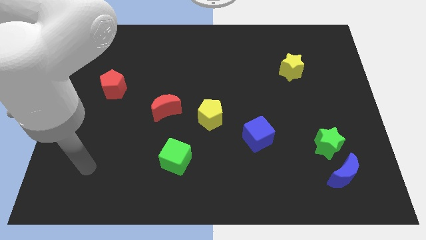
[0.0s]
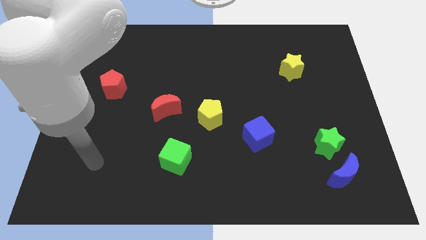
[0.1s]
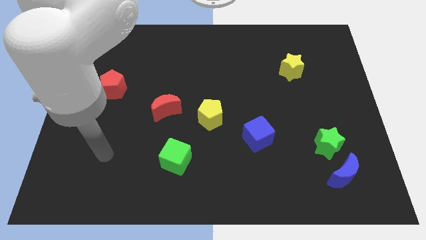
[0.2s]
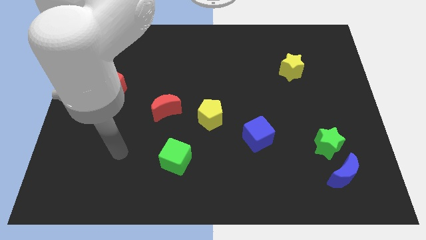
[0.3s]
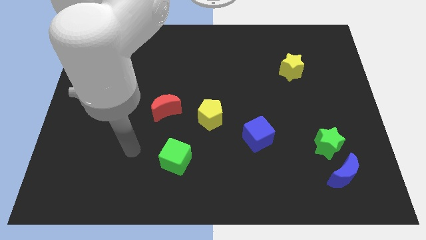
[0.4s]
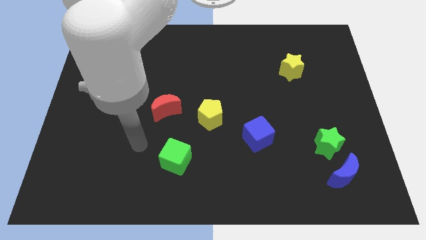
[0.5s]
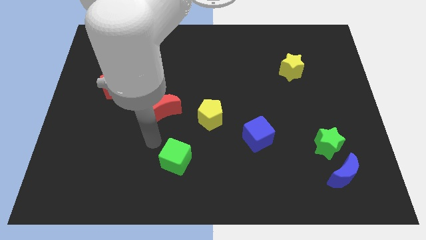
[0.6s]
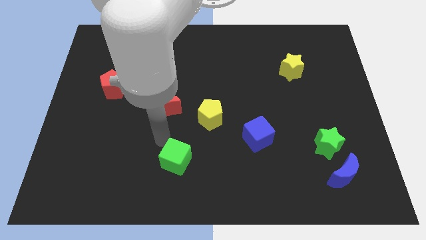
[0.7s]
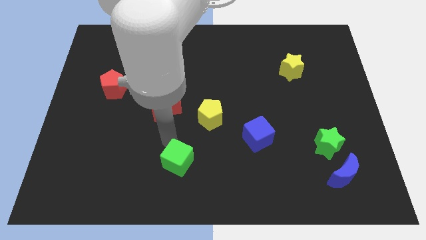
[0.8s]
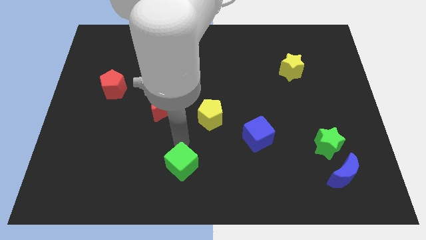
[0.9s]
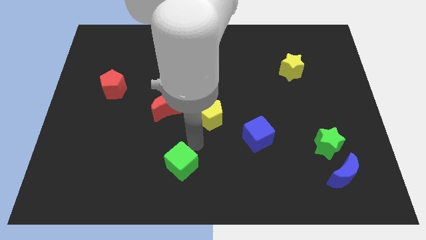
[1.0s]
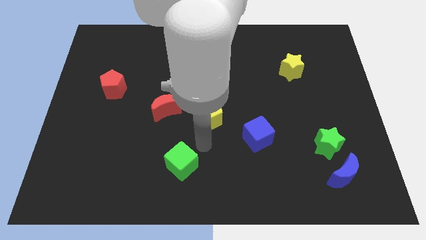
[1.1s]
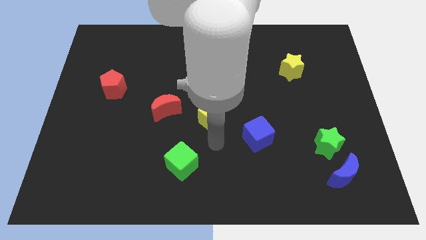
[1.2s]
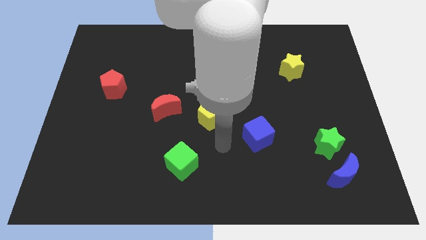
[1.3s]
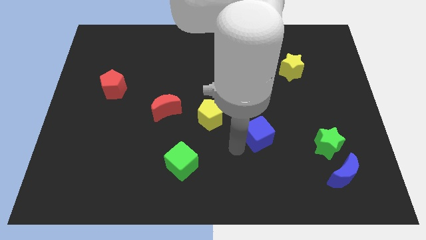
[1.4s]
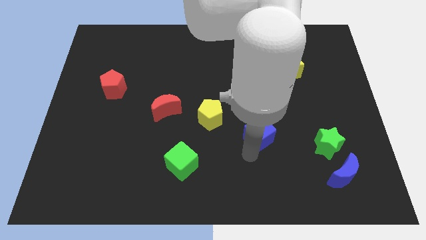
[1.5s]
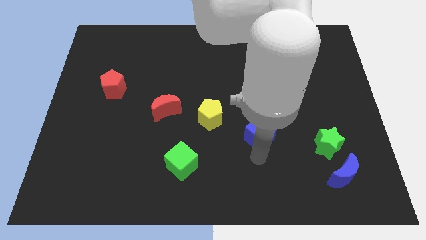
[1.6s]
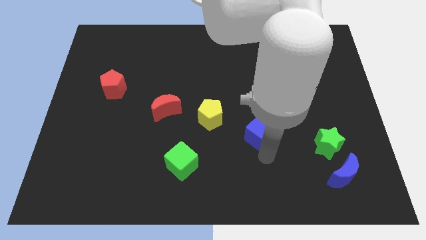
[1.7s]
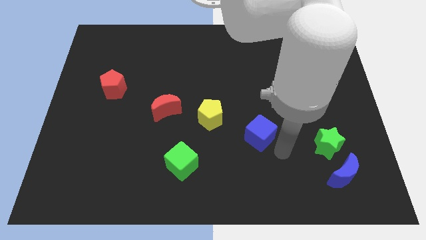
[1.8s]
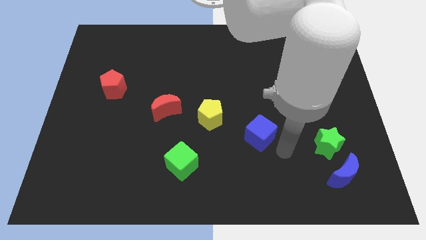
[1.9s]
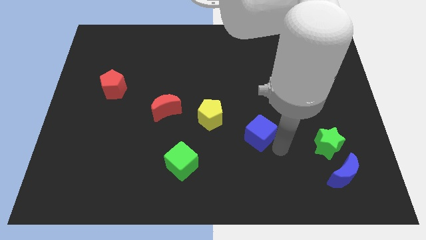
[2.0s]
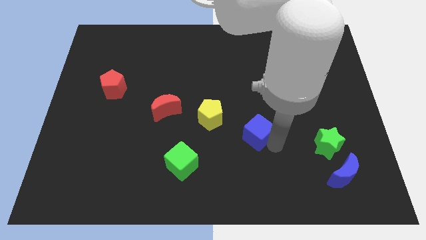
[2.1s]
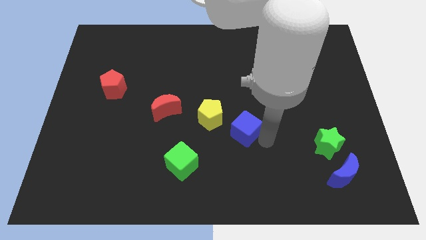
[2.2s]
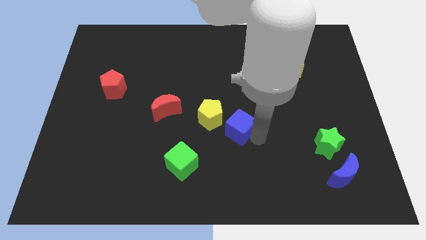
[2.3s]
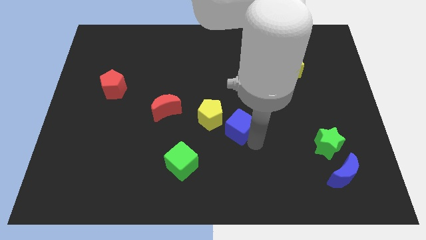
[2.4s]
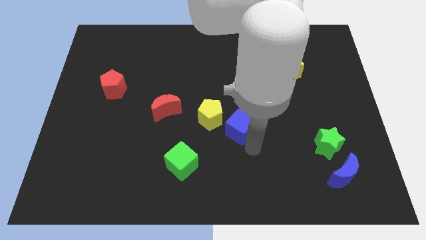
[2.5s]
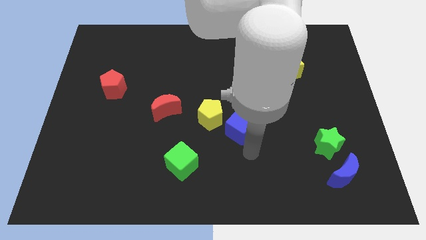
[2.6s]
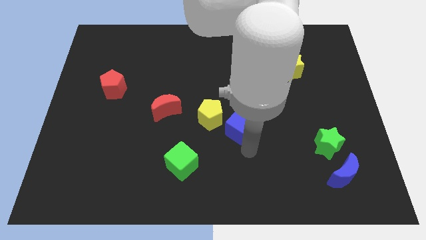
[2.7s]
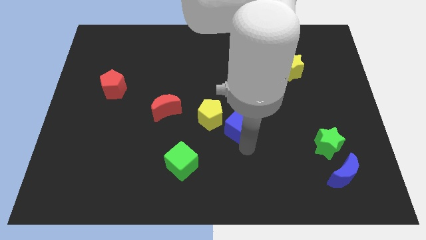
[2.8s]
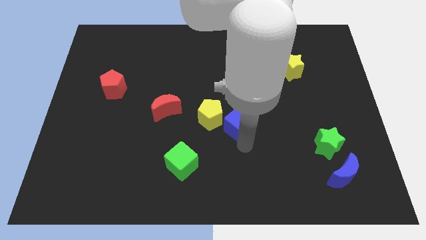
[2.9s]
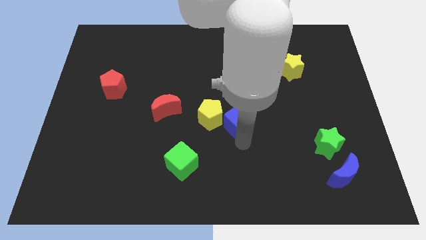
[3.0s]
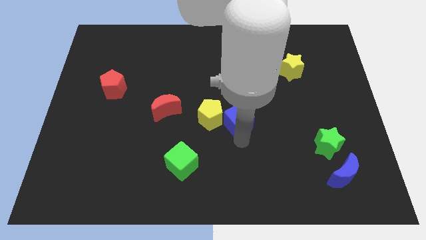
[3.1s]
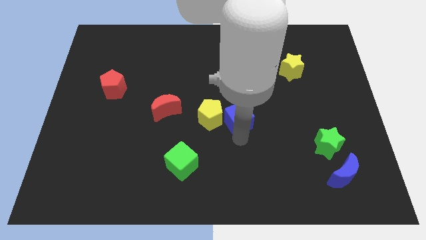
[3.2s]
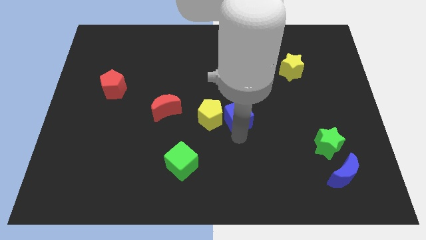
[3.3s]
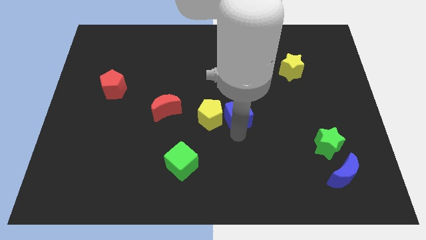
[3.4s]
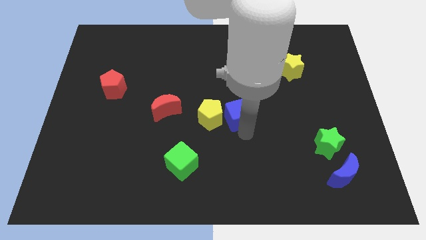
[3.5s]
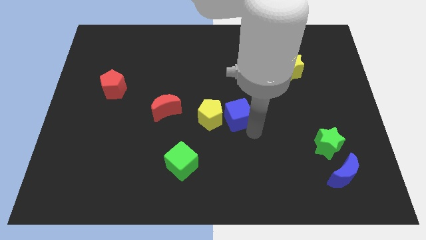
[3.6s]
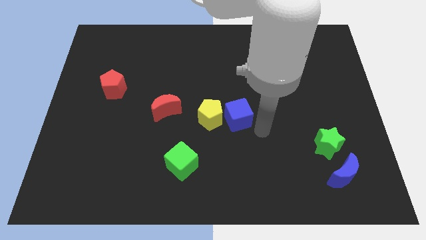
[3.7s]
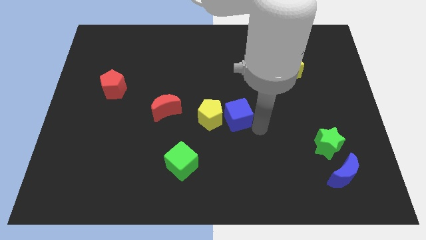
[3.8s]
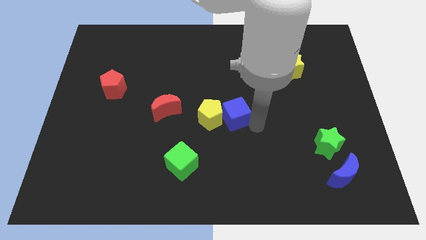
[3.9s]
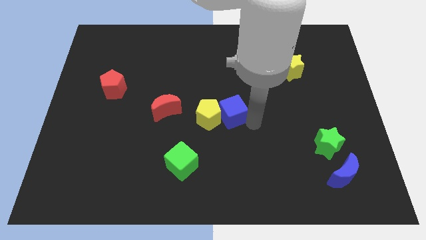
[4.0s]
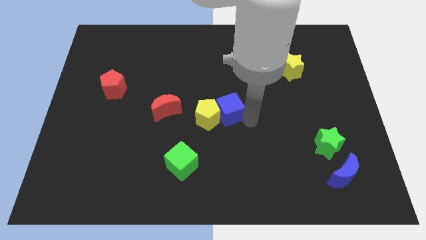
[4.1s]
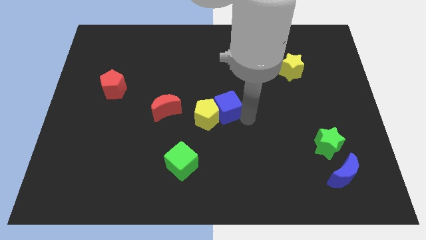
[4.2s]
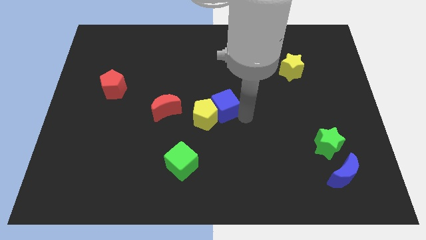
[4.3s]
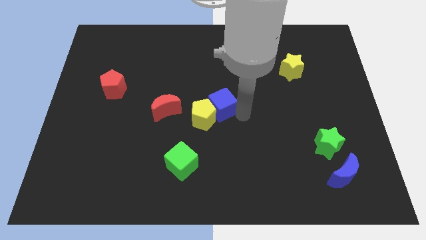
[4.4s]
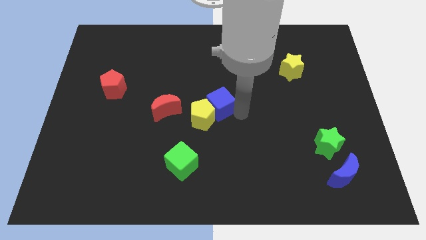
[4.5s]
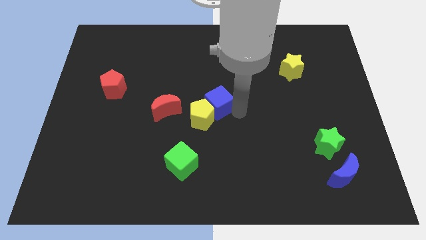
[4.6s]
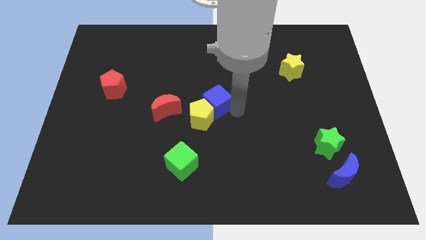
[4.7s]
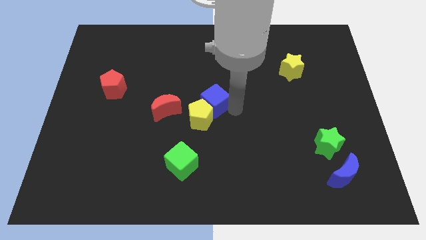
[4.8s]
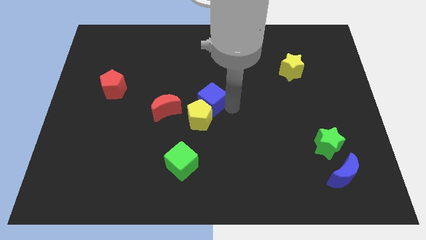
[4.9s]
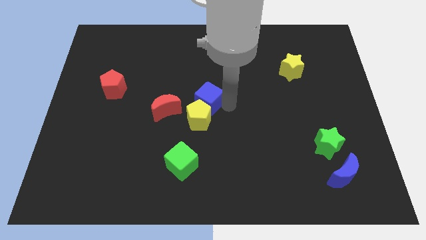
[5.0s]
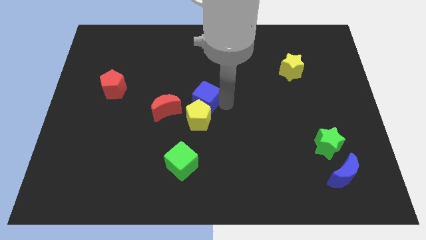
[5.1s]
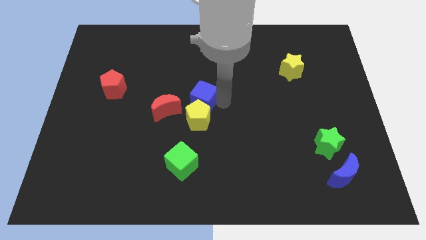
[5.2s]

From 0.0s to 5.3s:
move the blue cube diagonally up and to the left of the yellow pentagon

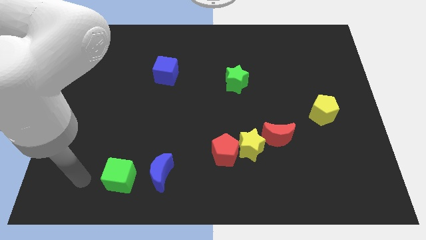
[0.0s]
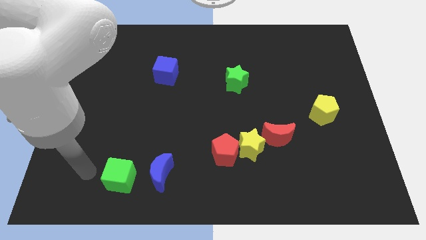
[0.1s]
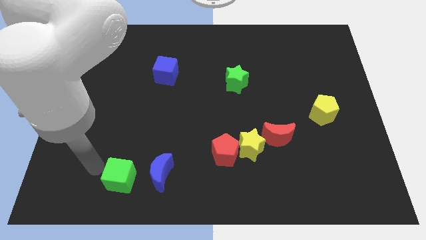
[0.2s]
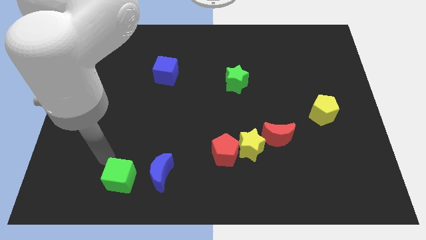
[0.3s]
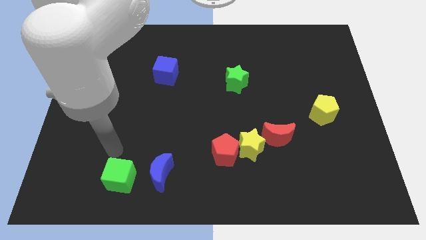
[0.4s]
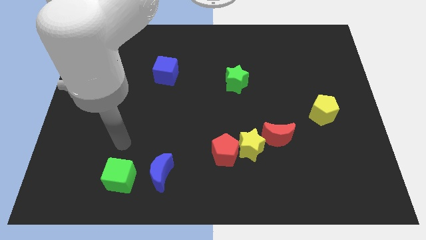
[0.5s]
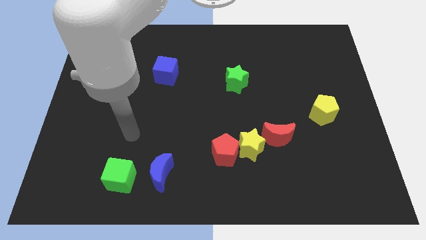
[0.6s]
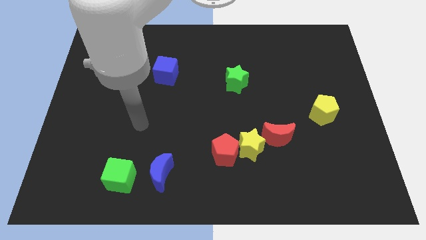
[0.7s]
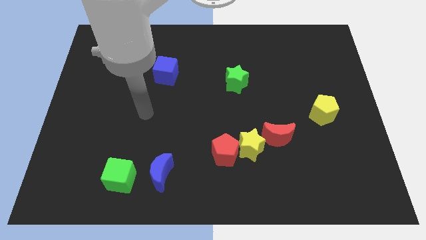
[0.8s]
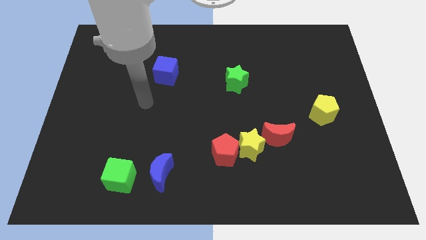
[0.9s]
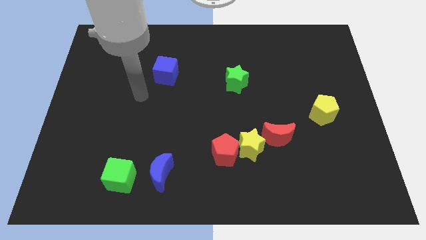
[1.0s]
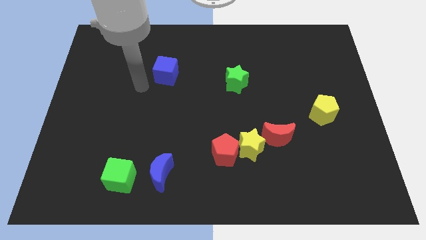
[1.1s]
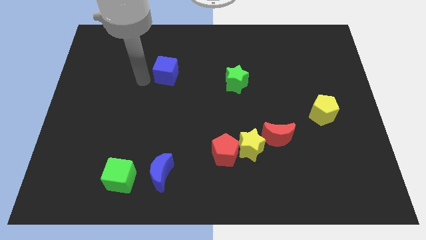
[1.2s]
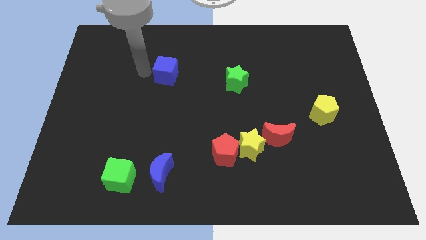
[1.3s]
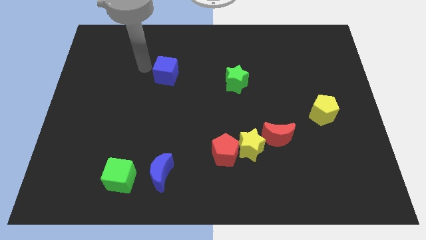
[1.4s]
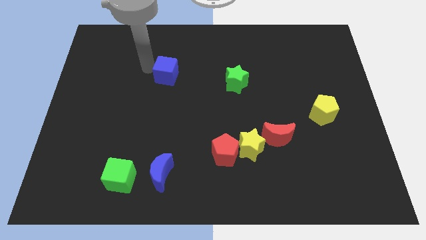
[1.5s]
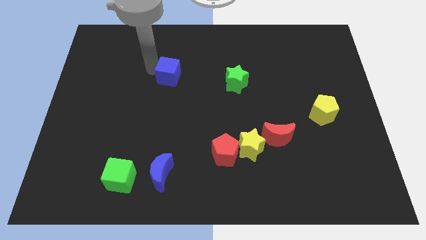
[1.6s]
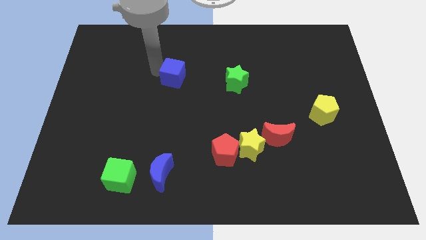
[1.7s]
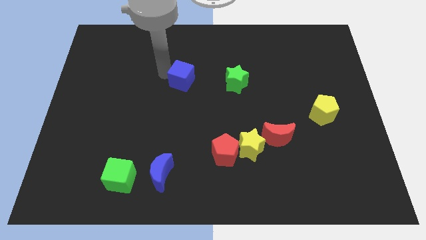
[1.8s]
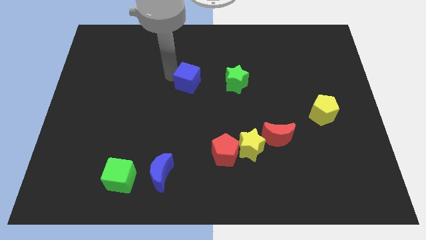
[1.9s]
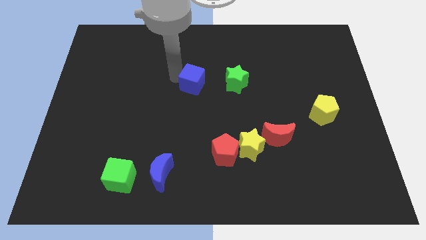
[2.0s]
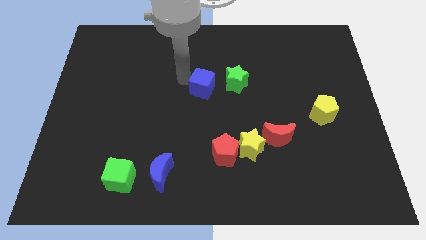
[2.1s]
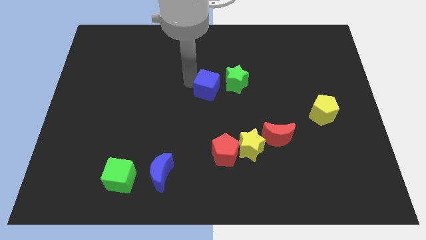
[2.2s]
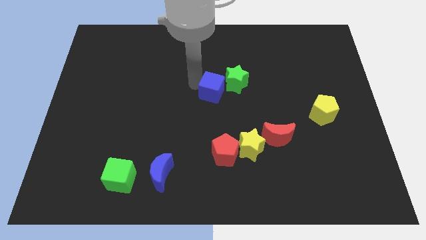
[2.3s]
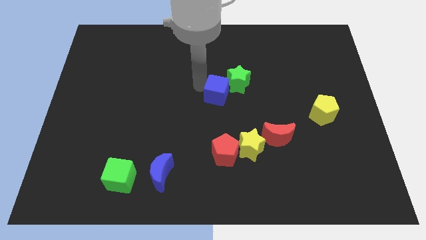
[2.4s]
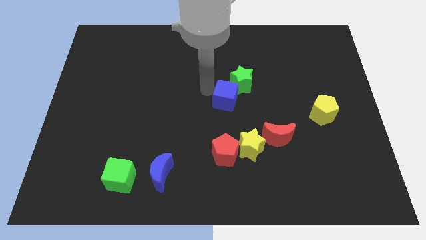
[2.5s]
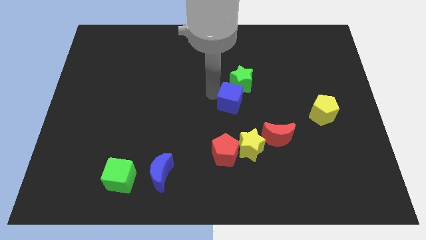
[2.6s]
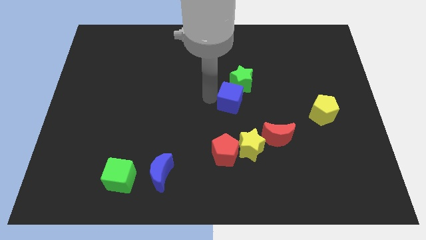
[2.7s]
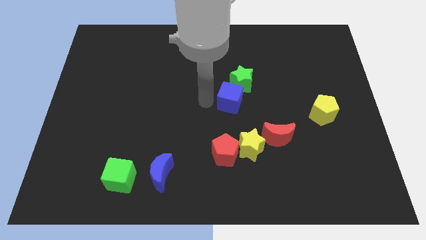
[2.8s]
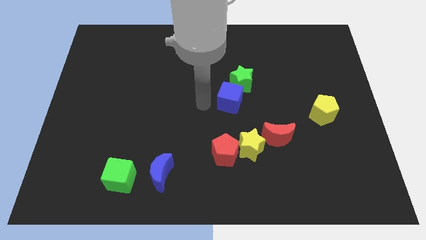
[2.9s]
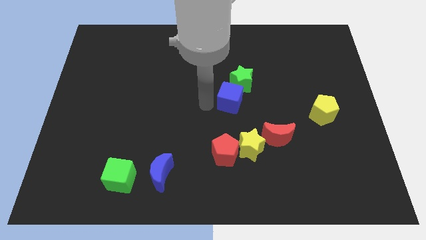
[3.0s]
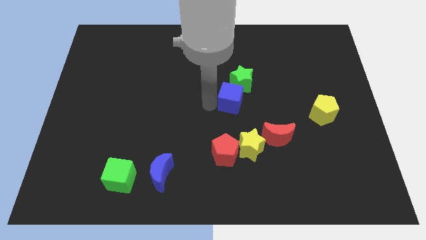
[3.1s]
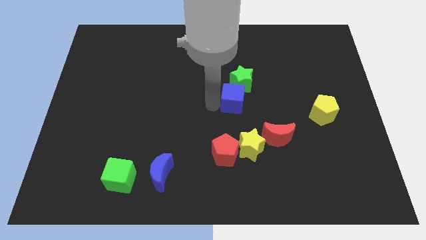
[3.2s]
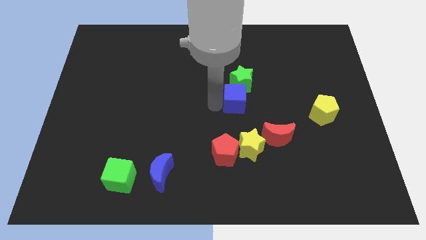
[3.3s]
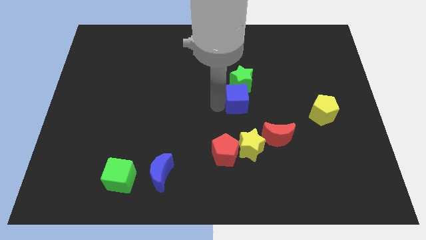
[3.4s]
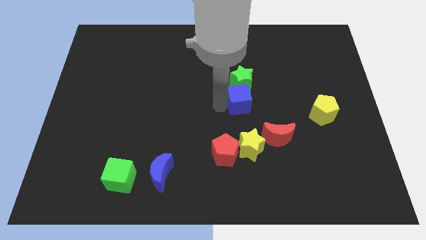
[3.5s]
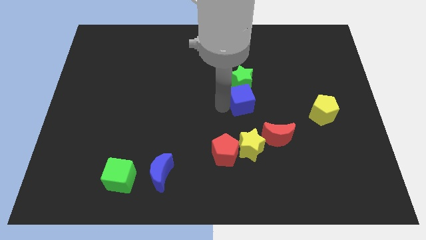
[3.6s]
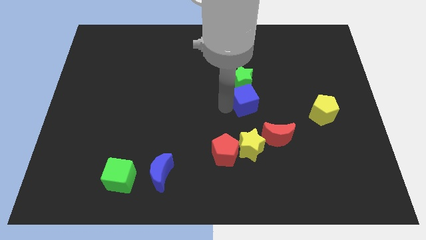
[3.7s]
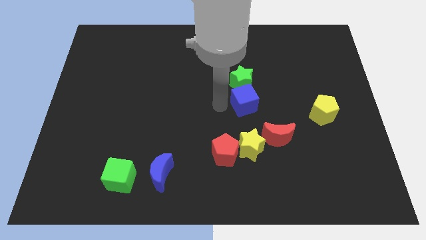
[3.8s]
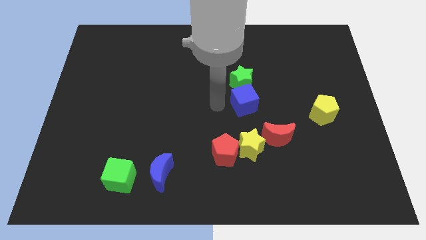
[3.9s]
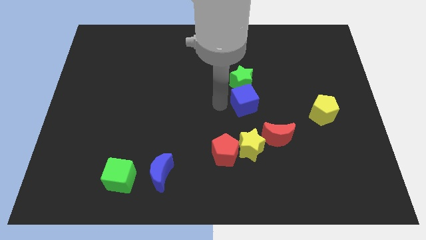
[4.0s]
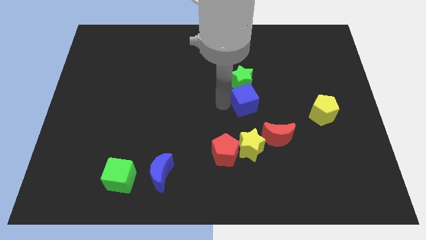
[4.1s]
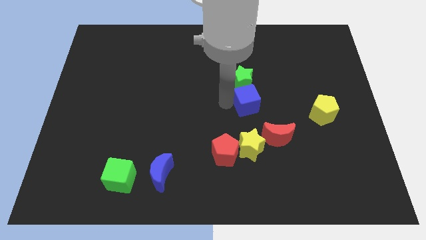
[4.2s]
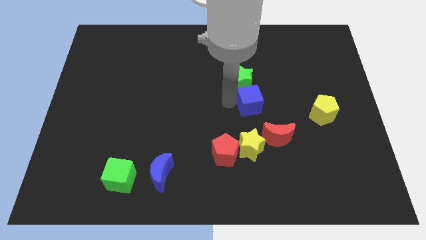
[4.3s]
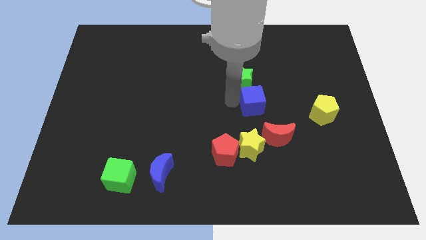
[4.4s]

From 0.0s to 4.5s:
move the blue cube to the top of the red moon
